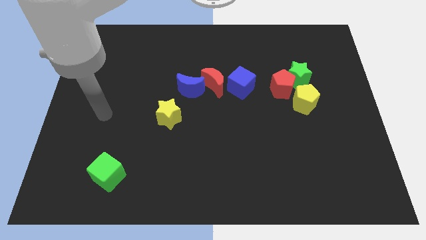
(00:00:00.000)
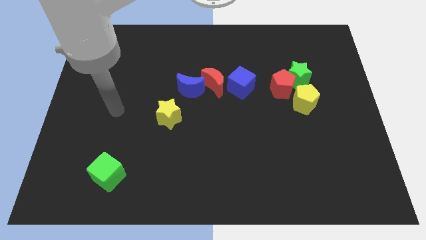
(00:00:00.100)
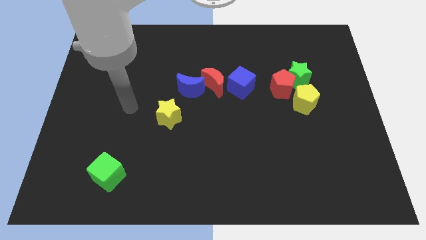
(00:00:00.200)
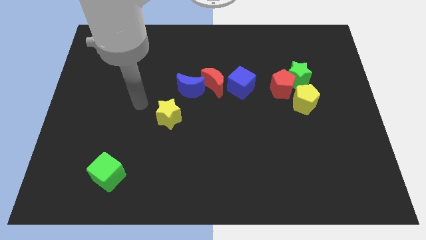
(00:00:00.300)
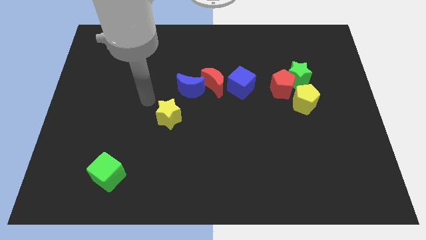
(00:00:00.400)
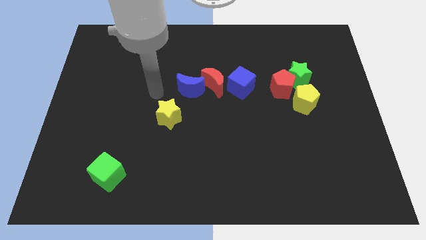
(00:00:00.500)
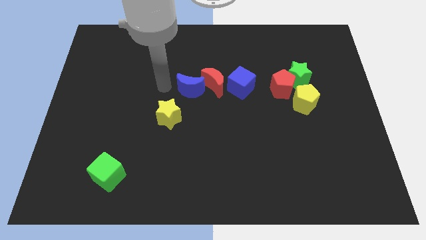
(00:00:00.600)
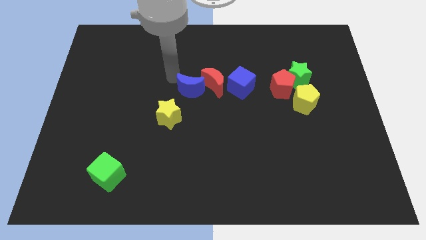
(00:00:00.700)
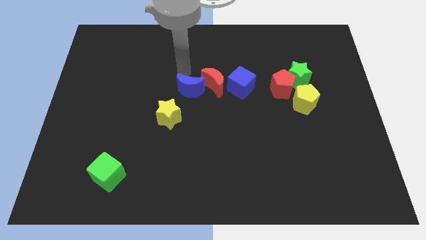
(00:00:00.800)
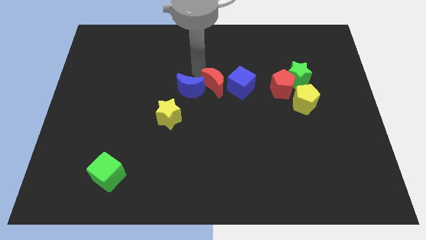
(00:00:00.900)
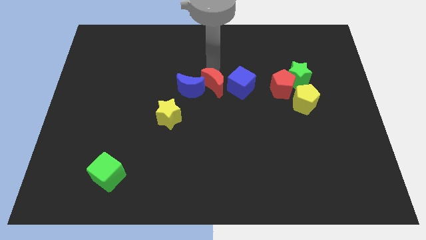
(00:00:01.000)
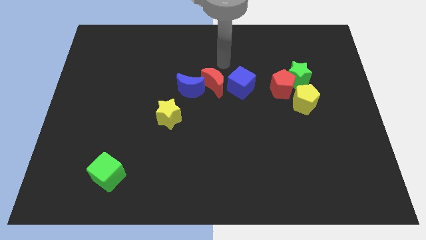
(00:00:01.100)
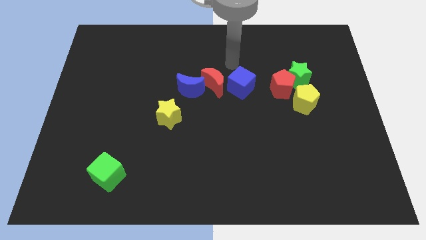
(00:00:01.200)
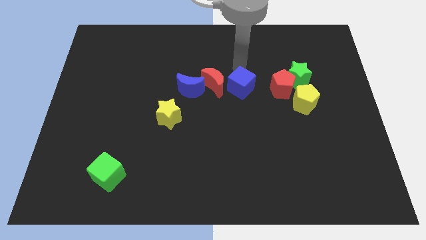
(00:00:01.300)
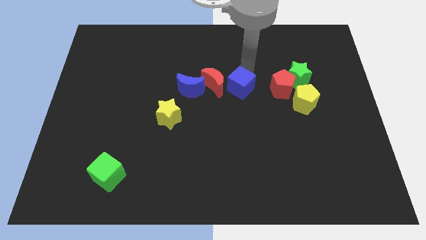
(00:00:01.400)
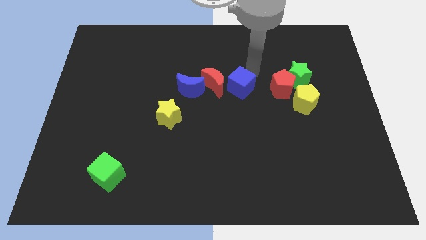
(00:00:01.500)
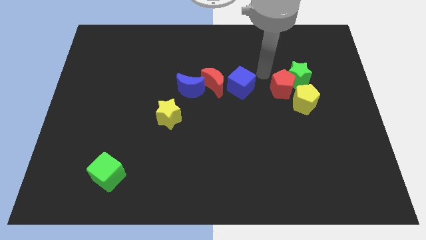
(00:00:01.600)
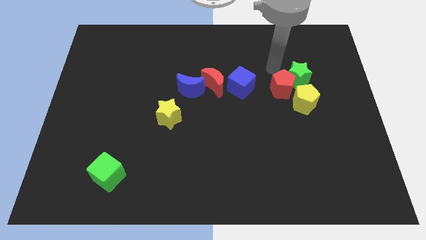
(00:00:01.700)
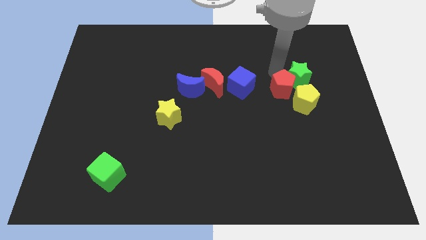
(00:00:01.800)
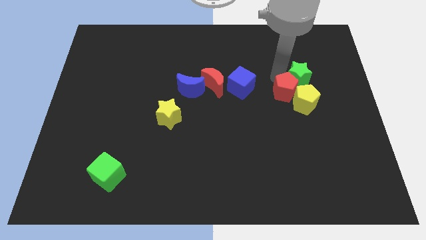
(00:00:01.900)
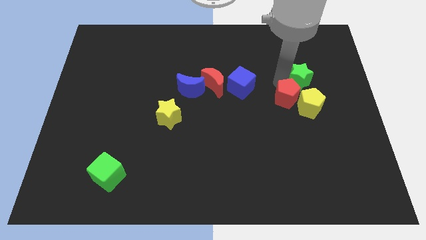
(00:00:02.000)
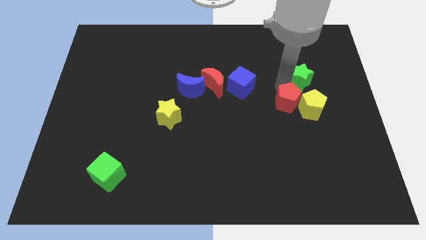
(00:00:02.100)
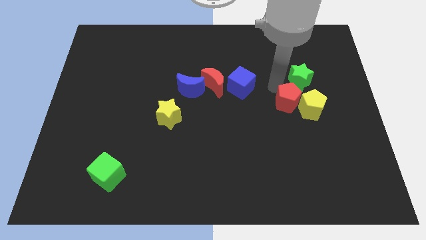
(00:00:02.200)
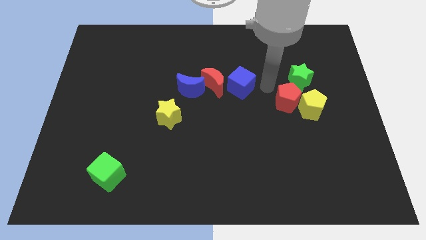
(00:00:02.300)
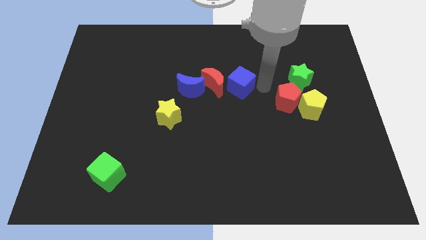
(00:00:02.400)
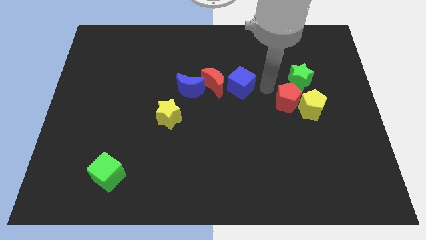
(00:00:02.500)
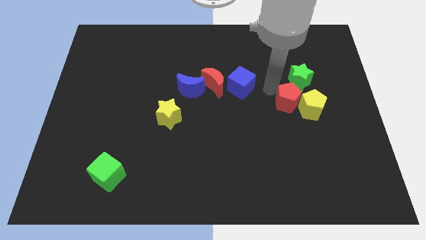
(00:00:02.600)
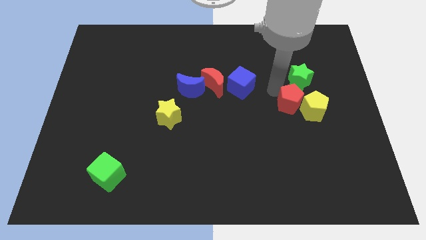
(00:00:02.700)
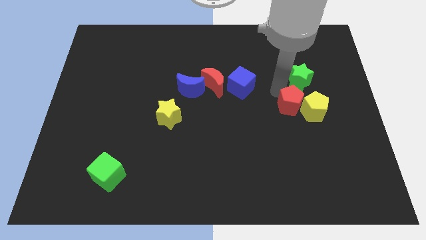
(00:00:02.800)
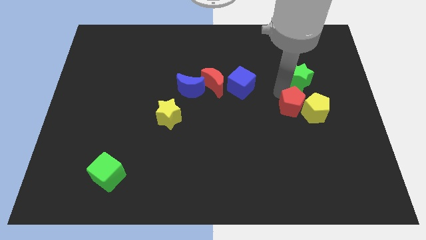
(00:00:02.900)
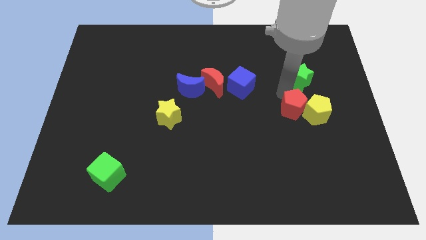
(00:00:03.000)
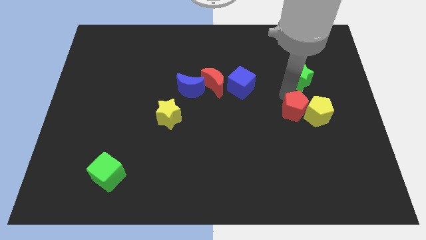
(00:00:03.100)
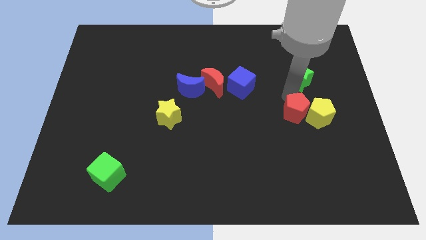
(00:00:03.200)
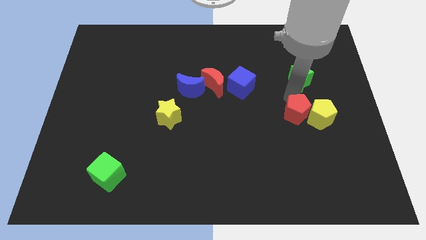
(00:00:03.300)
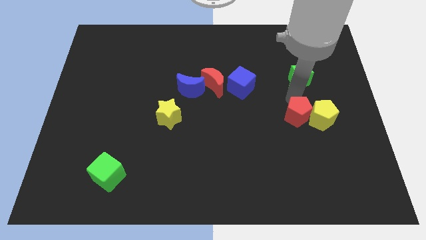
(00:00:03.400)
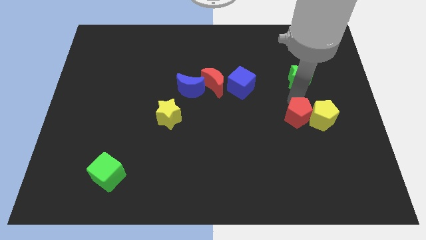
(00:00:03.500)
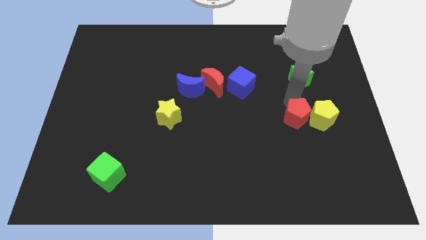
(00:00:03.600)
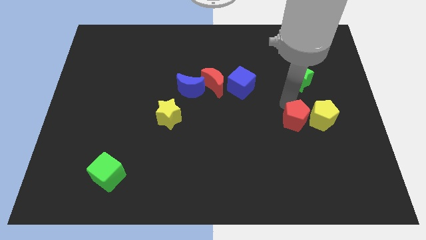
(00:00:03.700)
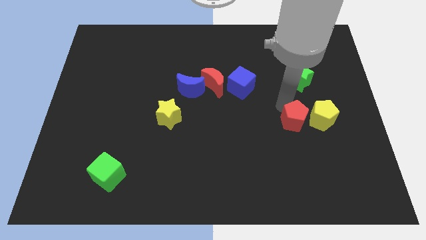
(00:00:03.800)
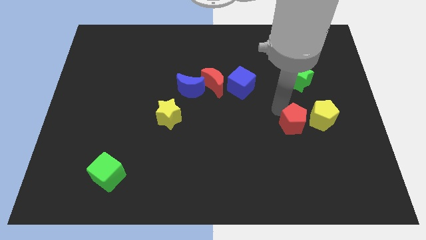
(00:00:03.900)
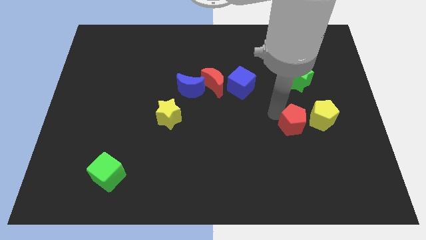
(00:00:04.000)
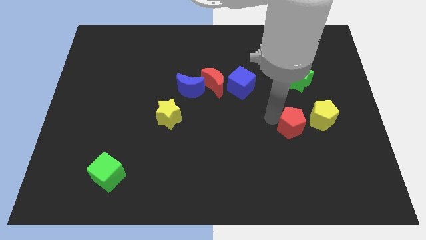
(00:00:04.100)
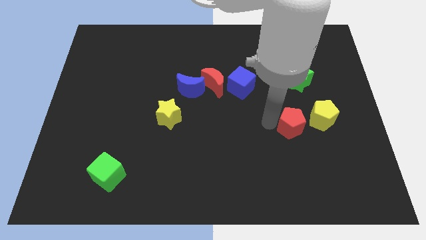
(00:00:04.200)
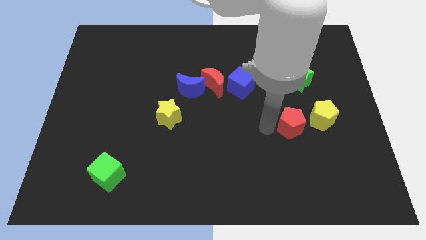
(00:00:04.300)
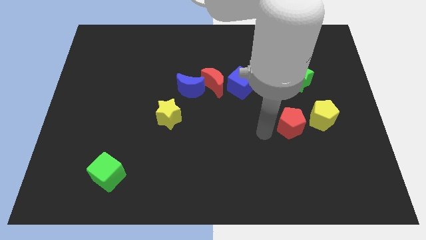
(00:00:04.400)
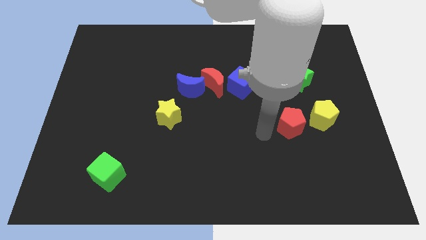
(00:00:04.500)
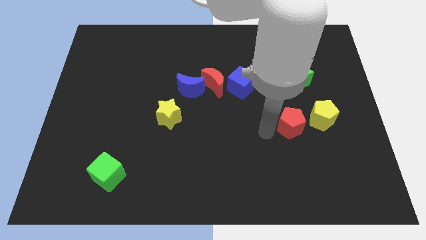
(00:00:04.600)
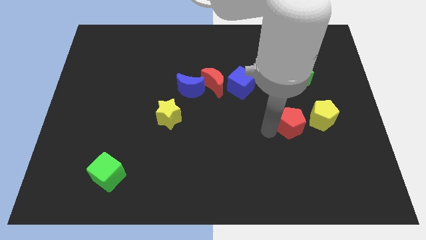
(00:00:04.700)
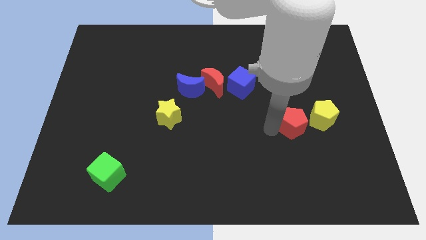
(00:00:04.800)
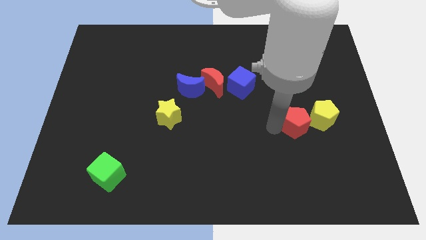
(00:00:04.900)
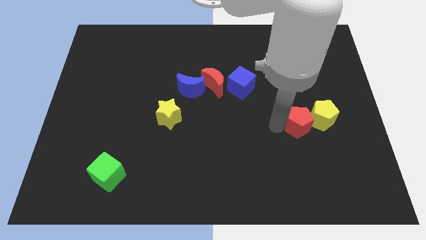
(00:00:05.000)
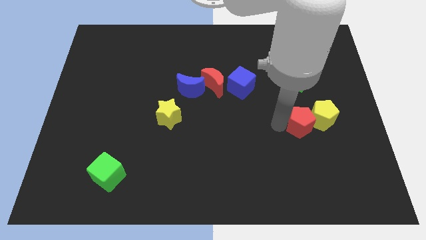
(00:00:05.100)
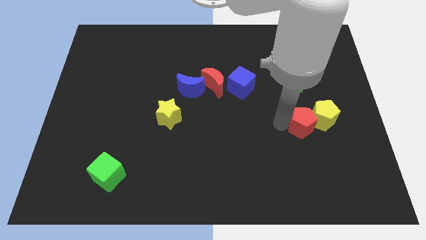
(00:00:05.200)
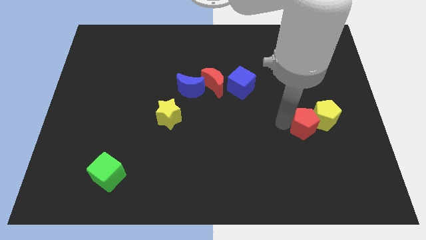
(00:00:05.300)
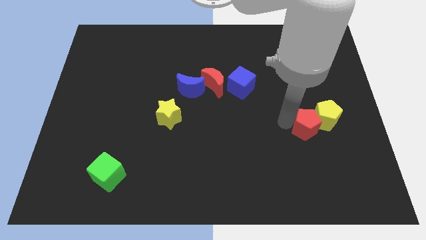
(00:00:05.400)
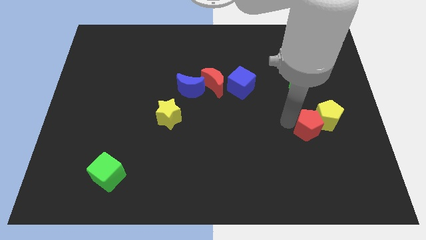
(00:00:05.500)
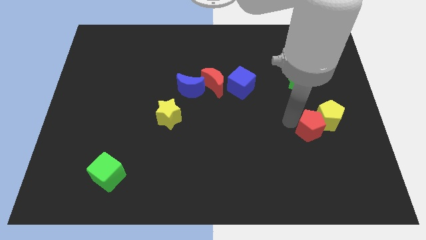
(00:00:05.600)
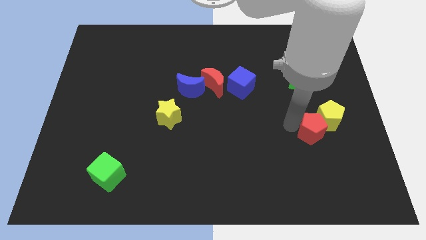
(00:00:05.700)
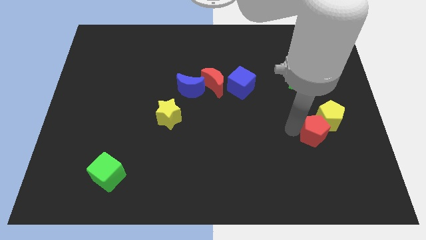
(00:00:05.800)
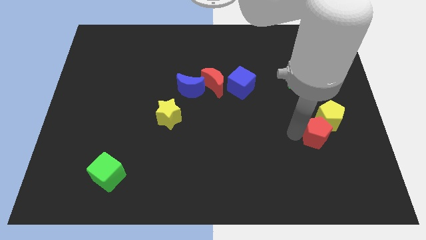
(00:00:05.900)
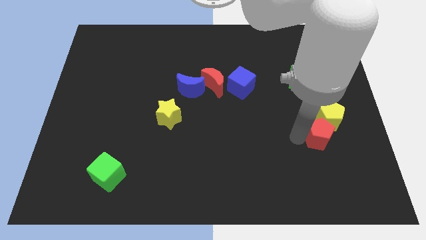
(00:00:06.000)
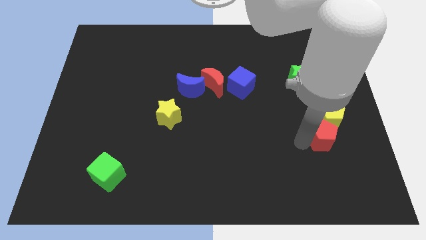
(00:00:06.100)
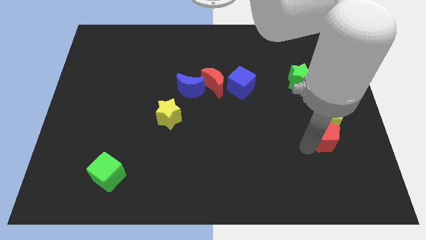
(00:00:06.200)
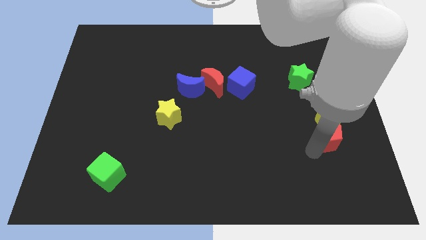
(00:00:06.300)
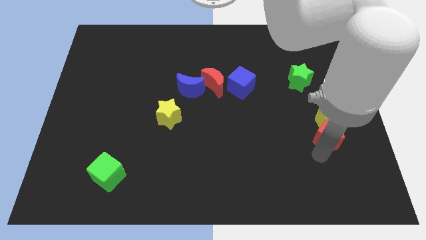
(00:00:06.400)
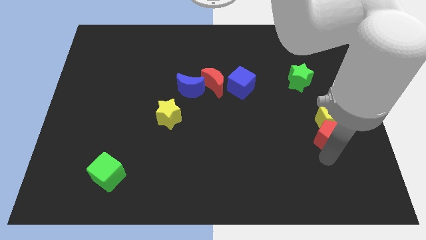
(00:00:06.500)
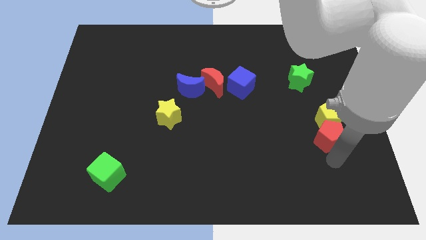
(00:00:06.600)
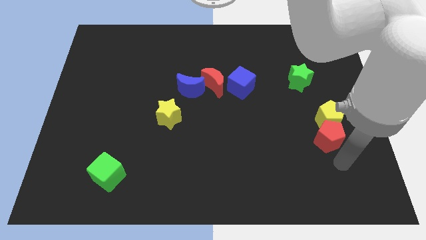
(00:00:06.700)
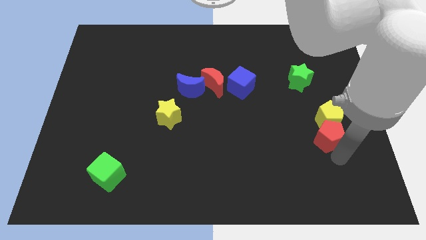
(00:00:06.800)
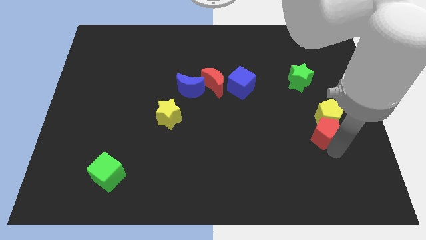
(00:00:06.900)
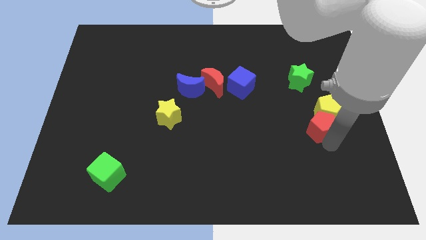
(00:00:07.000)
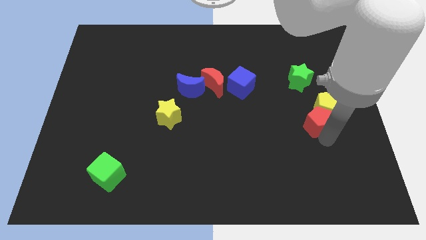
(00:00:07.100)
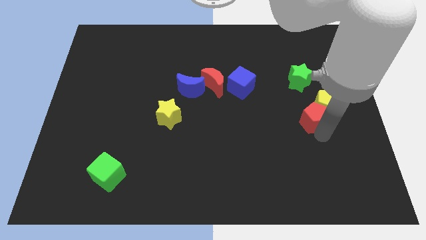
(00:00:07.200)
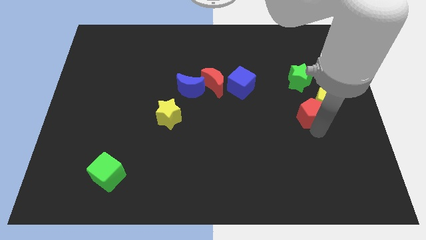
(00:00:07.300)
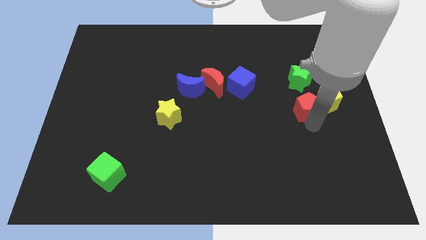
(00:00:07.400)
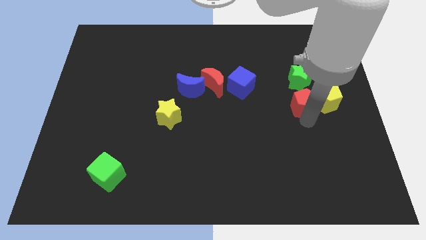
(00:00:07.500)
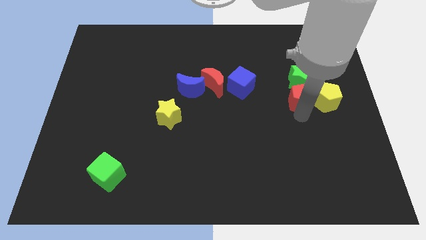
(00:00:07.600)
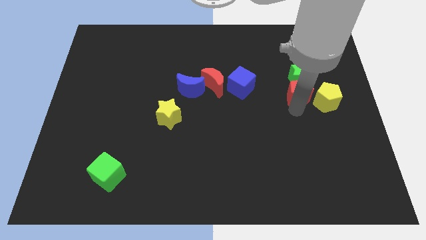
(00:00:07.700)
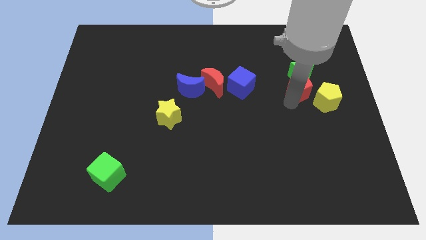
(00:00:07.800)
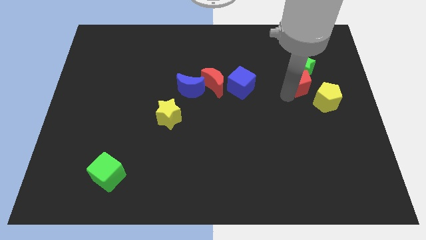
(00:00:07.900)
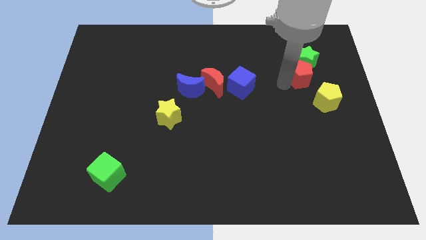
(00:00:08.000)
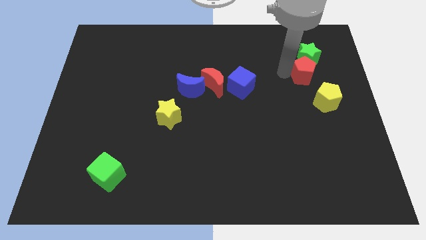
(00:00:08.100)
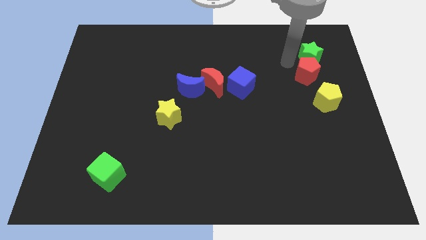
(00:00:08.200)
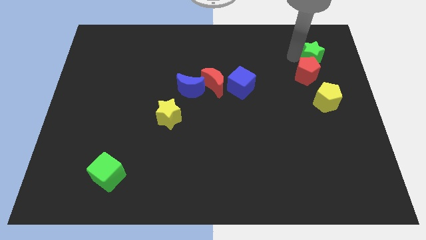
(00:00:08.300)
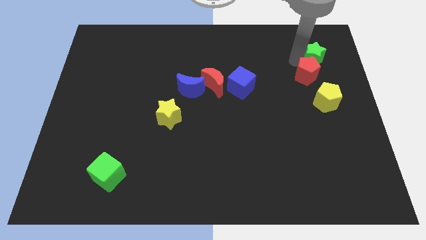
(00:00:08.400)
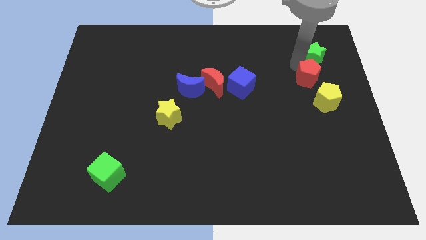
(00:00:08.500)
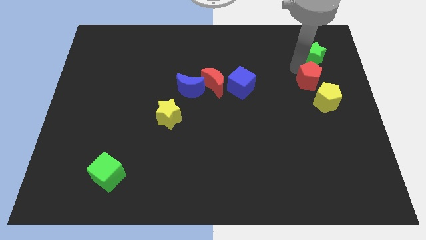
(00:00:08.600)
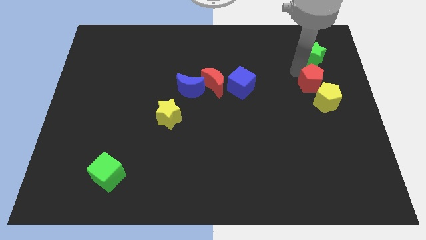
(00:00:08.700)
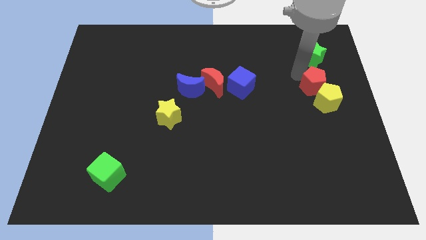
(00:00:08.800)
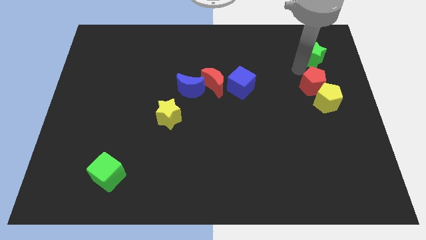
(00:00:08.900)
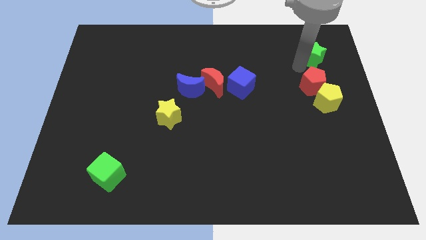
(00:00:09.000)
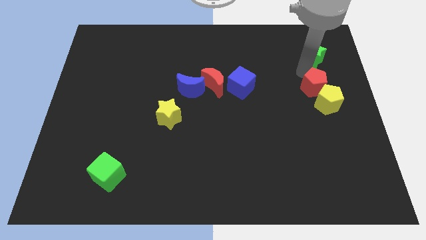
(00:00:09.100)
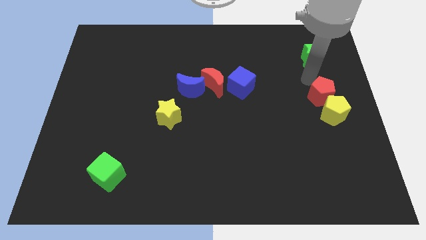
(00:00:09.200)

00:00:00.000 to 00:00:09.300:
put the red pentagon to the right side of the board
